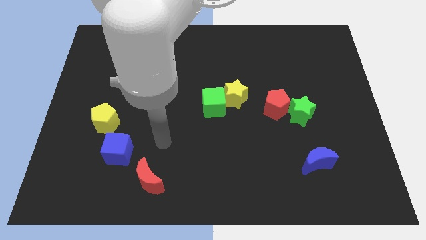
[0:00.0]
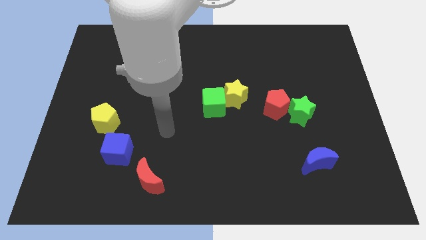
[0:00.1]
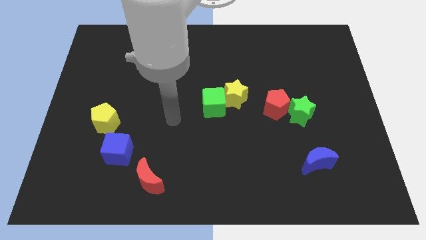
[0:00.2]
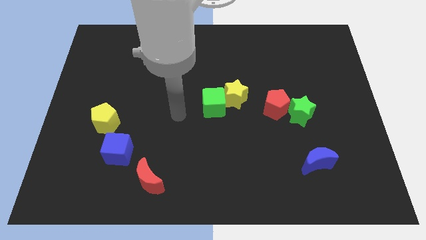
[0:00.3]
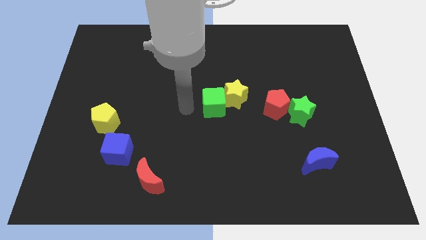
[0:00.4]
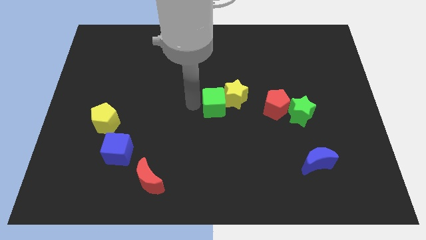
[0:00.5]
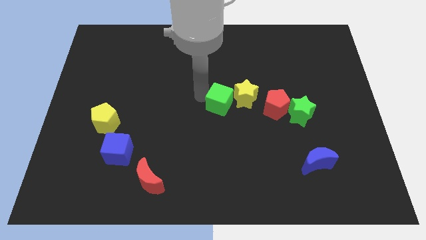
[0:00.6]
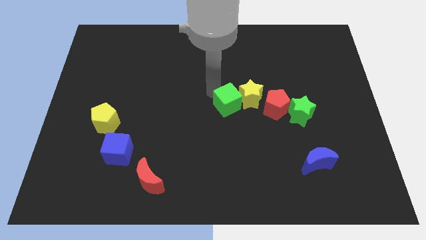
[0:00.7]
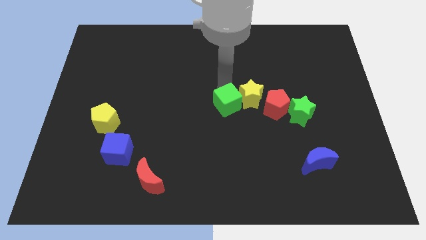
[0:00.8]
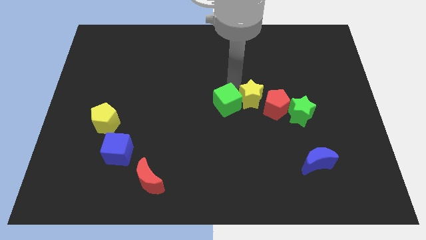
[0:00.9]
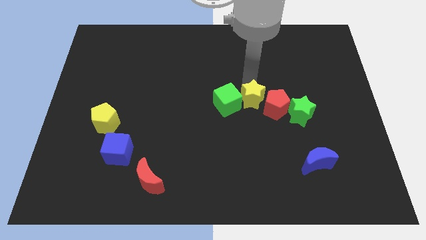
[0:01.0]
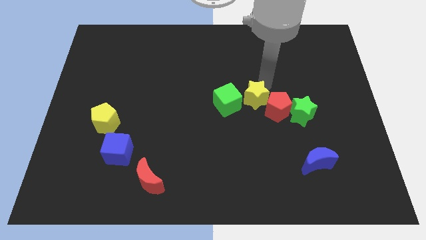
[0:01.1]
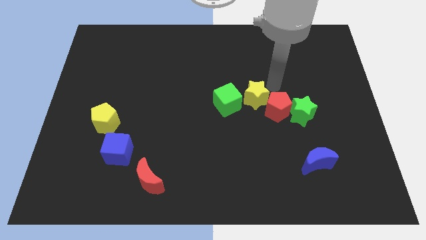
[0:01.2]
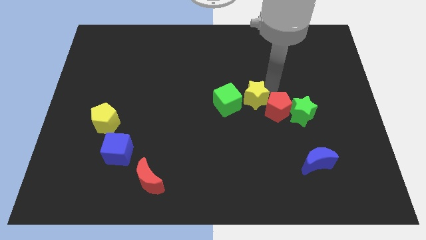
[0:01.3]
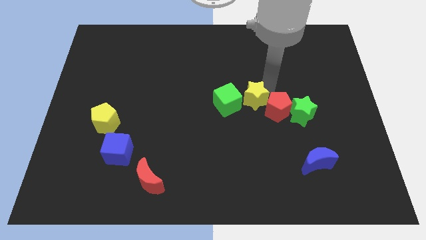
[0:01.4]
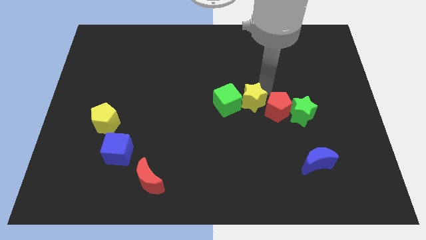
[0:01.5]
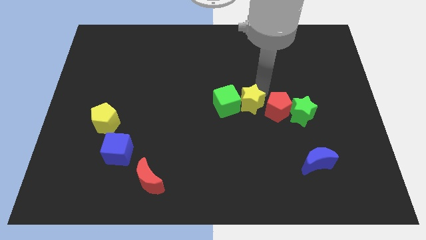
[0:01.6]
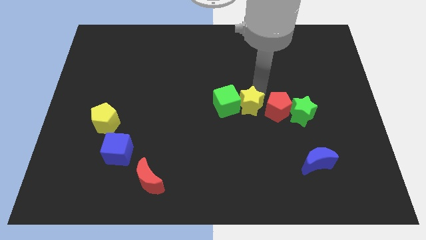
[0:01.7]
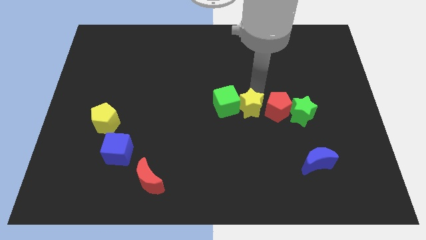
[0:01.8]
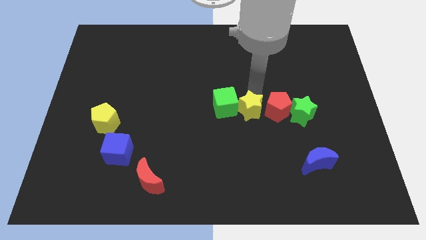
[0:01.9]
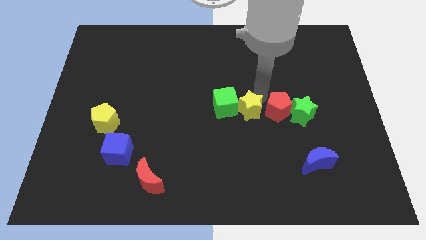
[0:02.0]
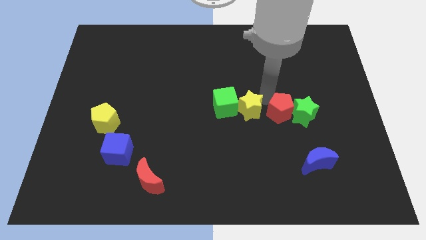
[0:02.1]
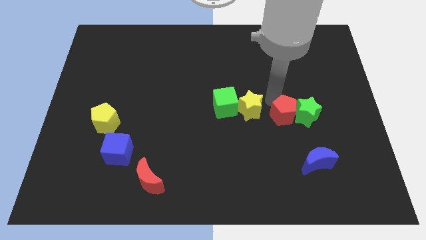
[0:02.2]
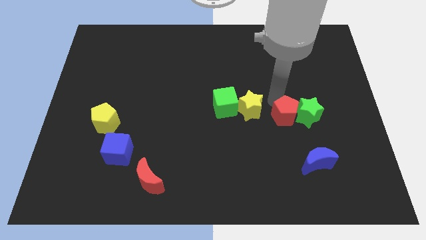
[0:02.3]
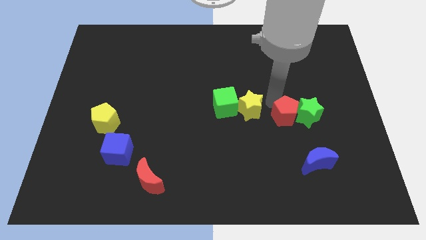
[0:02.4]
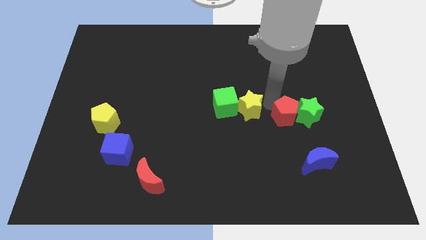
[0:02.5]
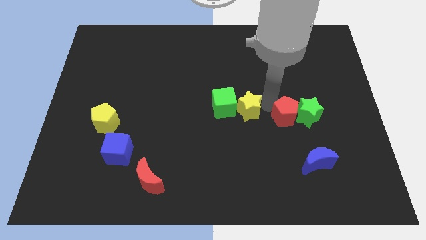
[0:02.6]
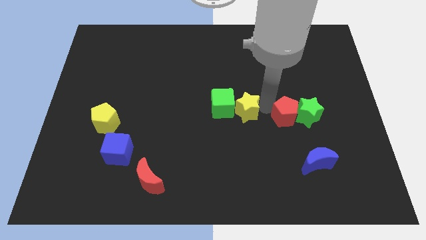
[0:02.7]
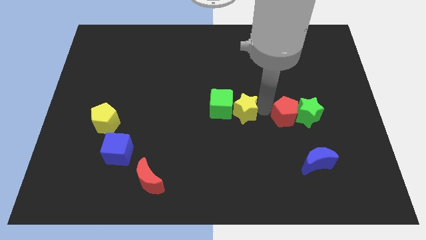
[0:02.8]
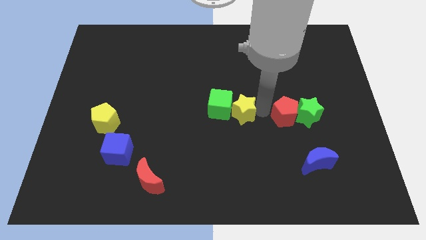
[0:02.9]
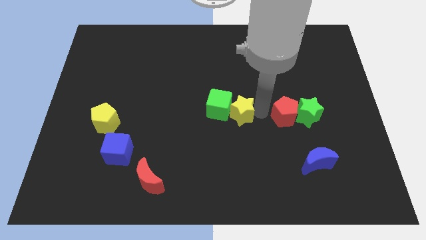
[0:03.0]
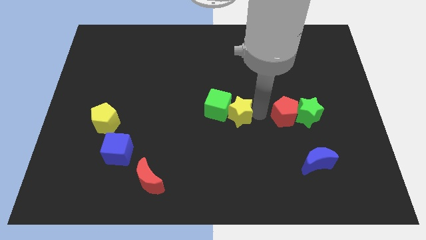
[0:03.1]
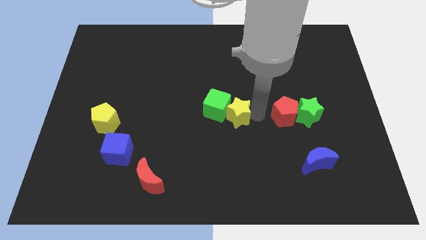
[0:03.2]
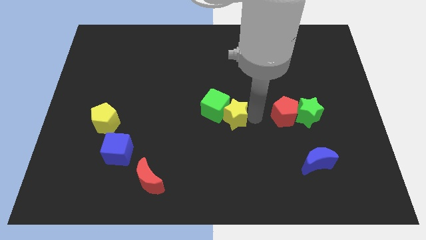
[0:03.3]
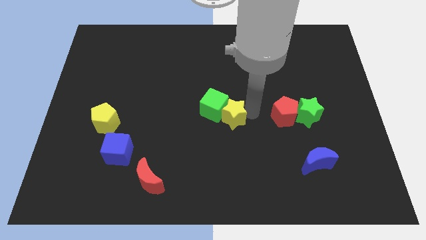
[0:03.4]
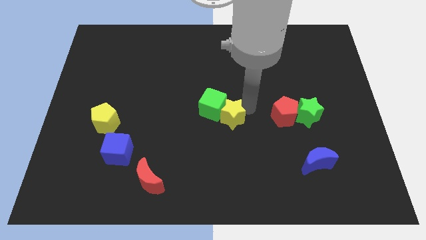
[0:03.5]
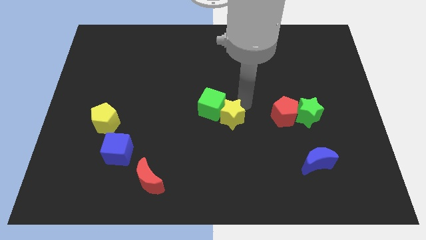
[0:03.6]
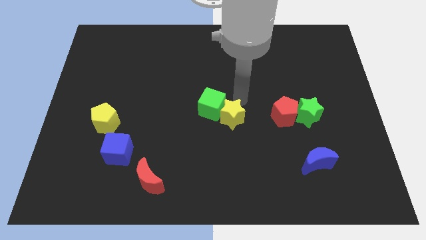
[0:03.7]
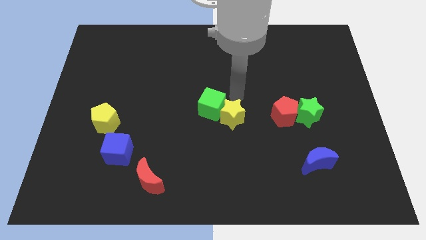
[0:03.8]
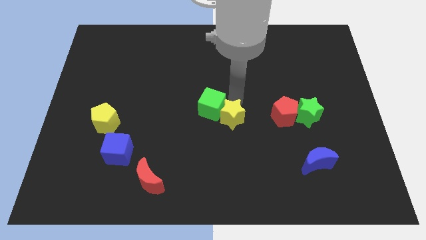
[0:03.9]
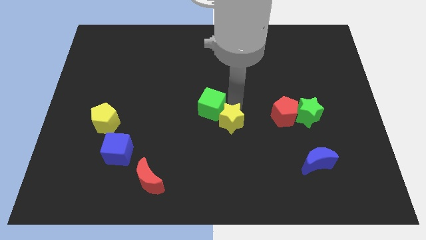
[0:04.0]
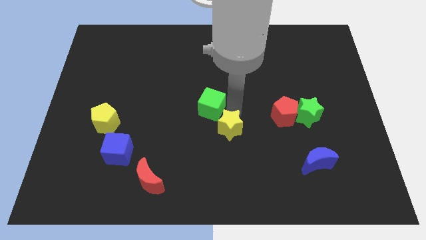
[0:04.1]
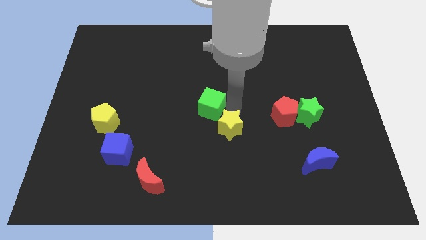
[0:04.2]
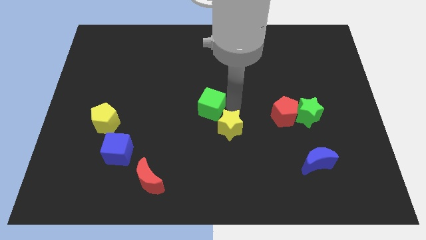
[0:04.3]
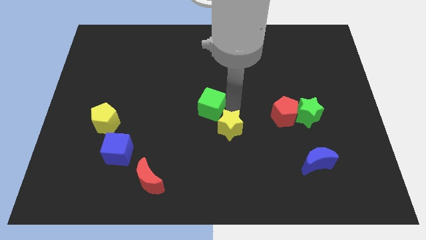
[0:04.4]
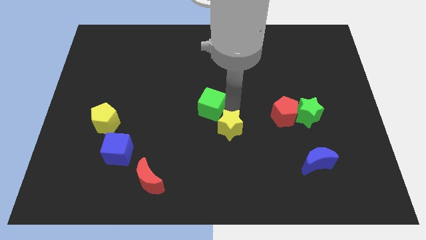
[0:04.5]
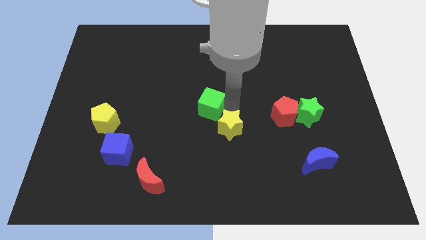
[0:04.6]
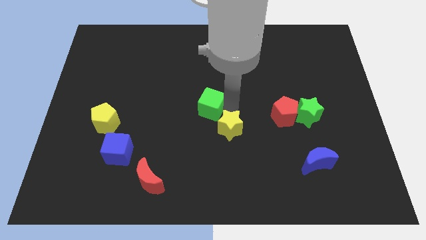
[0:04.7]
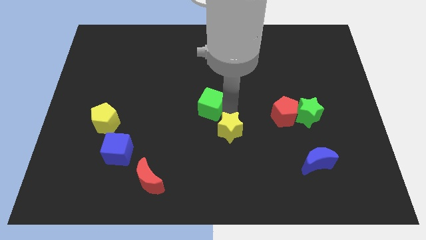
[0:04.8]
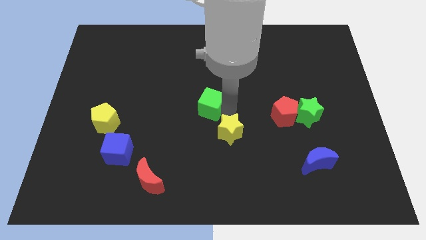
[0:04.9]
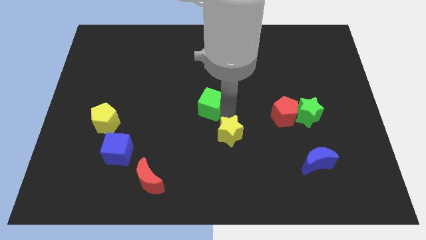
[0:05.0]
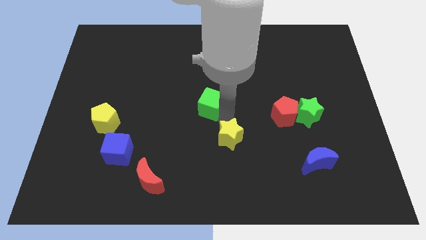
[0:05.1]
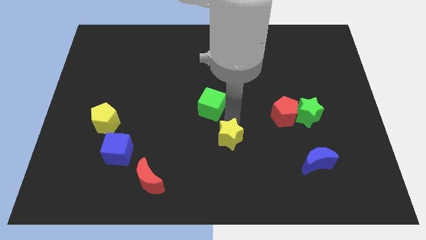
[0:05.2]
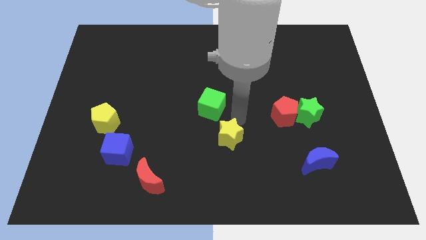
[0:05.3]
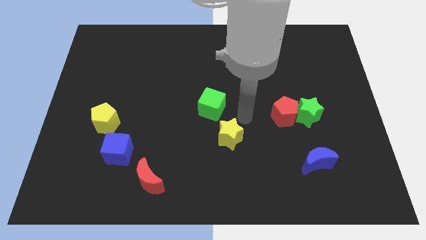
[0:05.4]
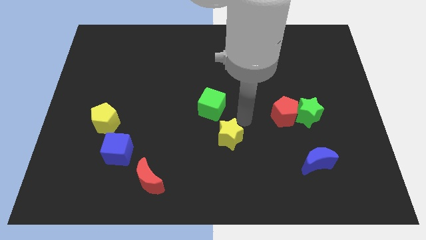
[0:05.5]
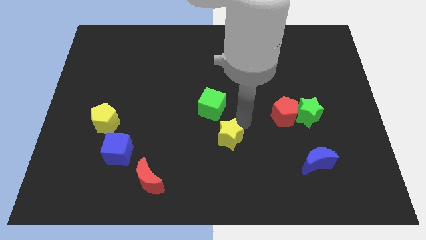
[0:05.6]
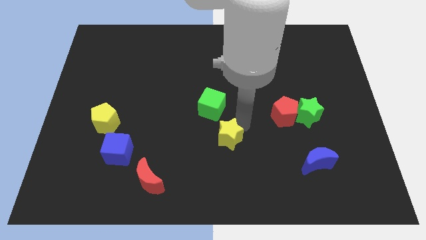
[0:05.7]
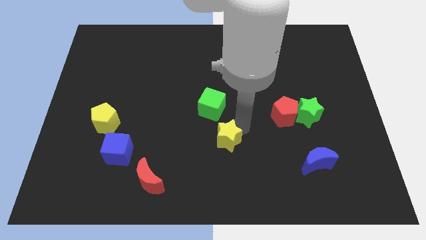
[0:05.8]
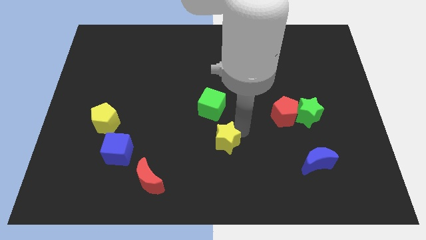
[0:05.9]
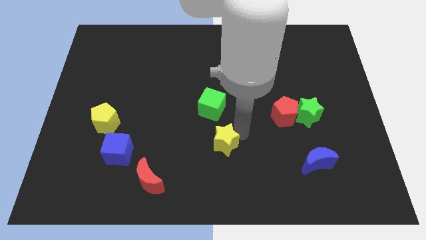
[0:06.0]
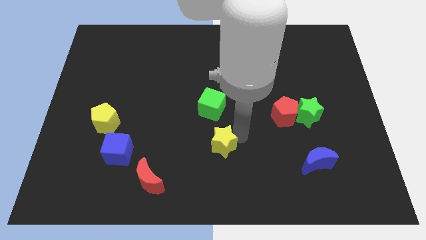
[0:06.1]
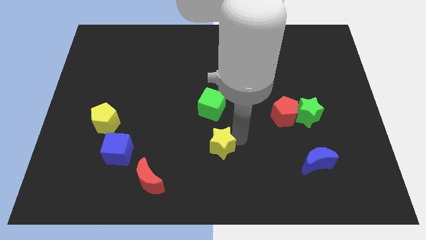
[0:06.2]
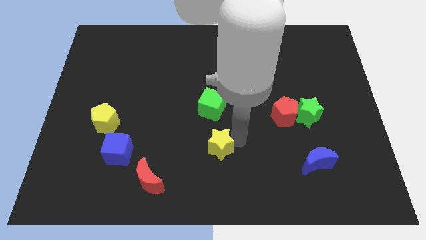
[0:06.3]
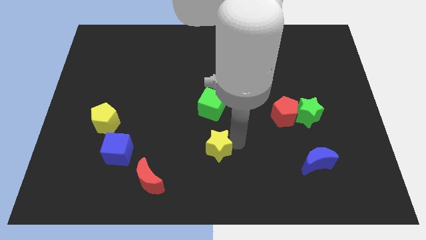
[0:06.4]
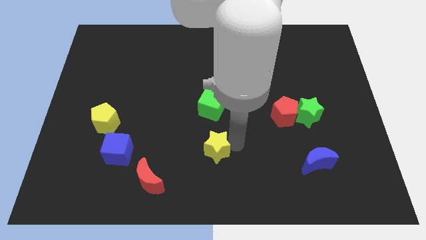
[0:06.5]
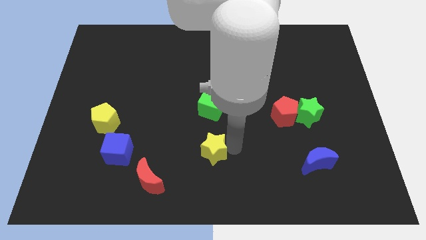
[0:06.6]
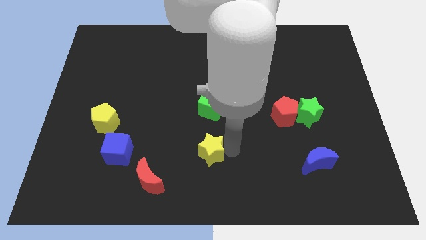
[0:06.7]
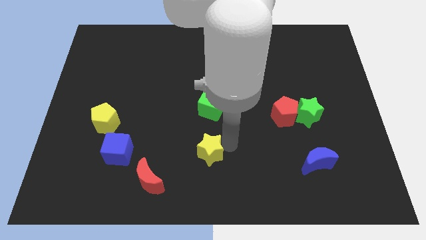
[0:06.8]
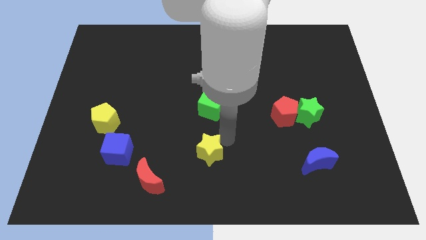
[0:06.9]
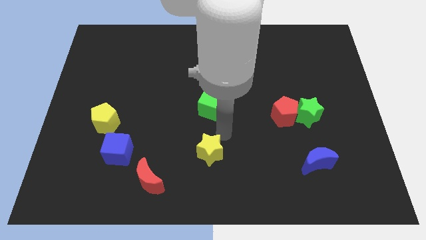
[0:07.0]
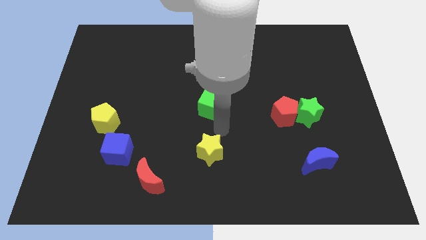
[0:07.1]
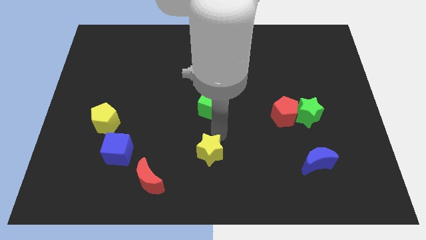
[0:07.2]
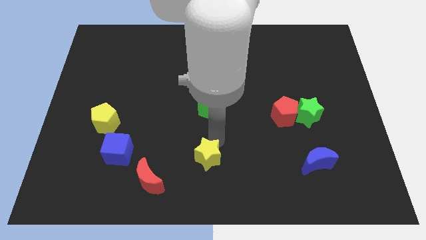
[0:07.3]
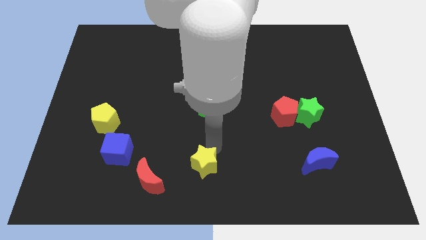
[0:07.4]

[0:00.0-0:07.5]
move the yellow star just right of the red moon
